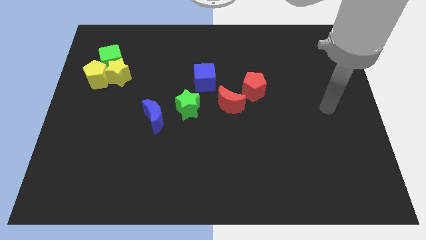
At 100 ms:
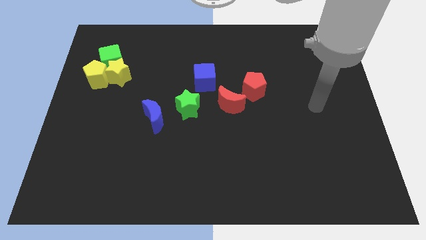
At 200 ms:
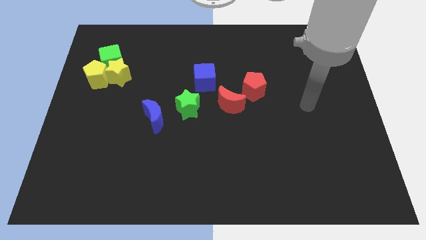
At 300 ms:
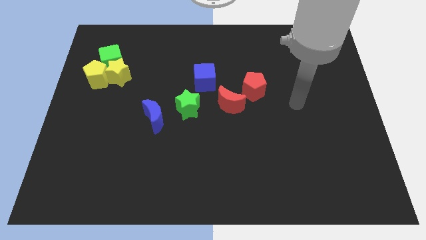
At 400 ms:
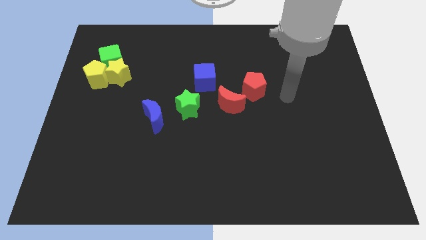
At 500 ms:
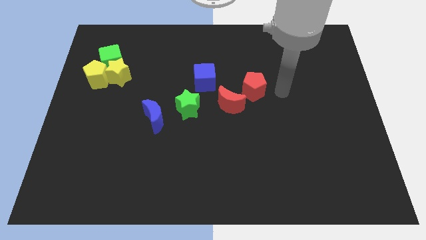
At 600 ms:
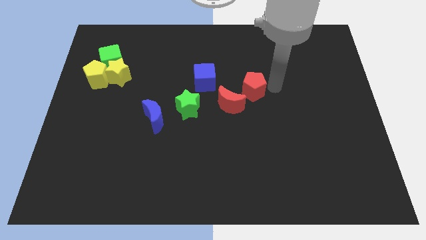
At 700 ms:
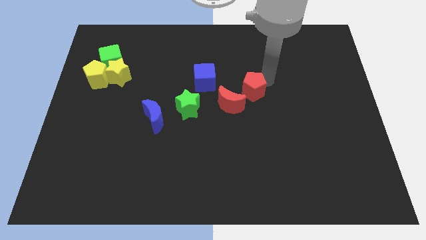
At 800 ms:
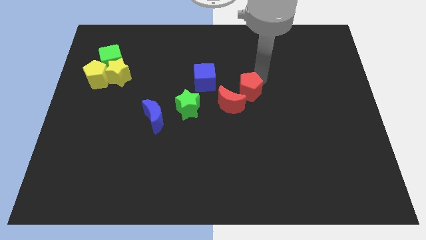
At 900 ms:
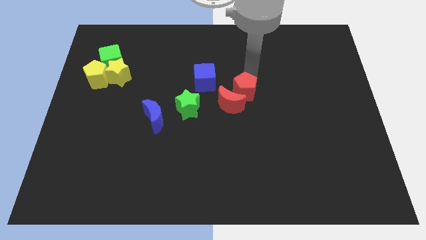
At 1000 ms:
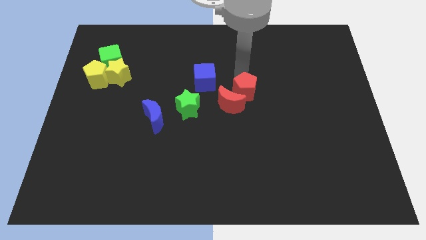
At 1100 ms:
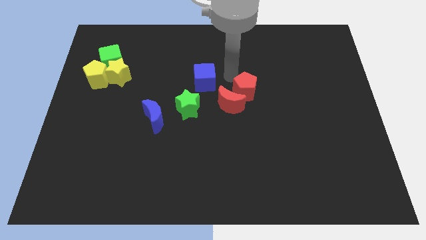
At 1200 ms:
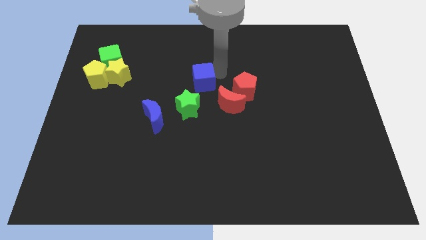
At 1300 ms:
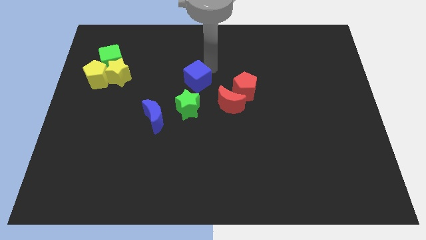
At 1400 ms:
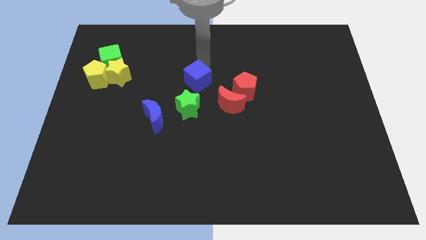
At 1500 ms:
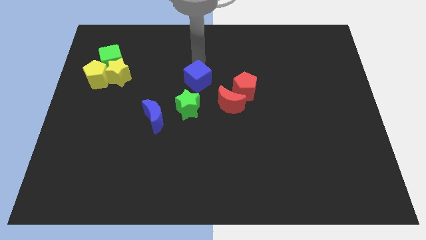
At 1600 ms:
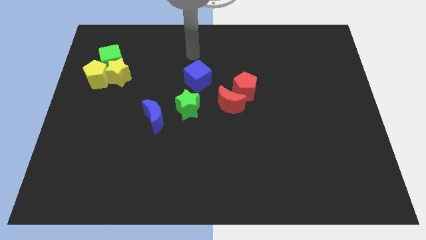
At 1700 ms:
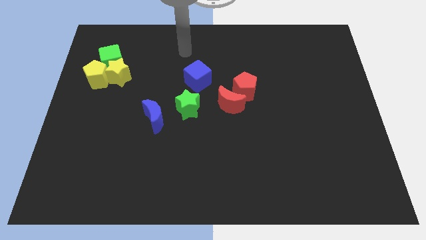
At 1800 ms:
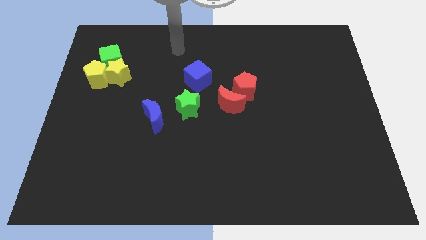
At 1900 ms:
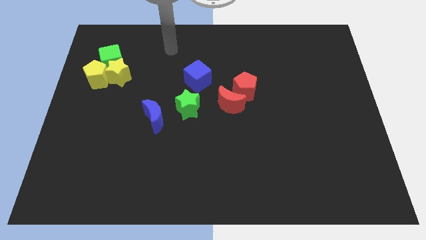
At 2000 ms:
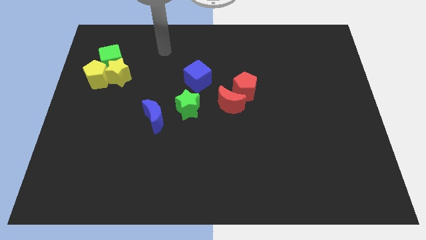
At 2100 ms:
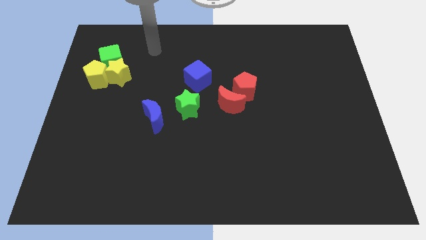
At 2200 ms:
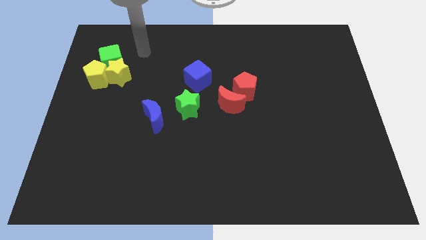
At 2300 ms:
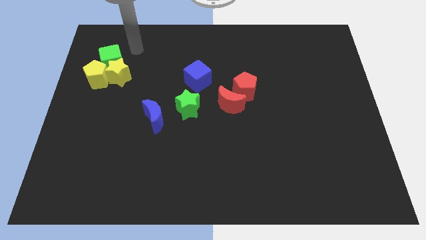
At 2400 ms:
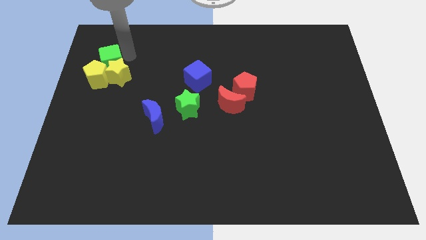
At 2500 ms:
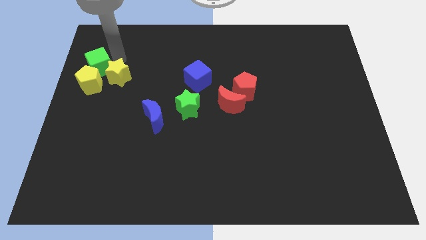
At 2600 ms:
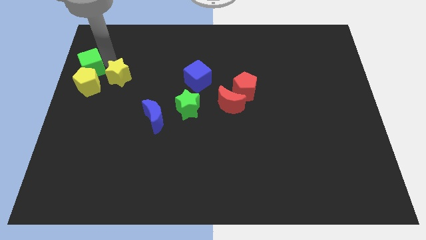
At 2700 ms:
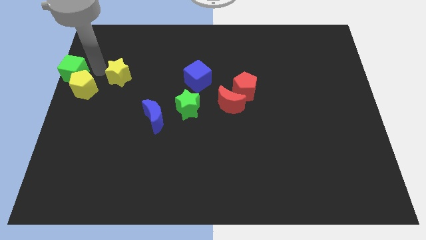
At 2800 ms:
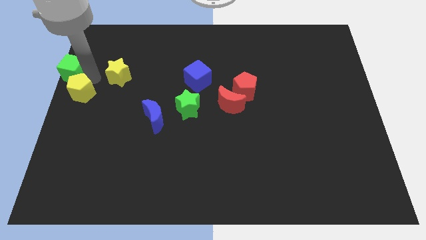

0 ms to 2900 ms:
separate the yellow star from the green cube and yellow pentagon

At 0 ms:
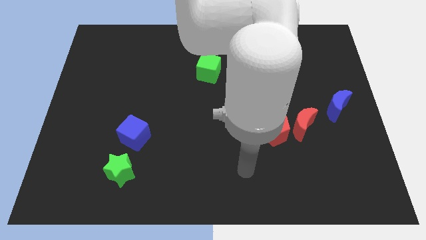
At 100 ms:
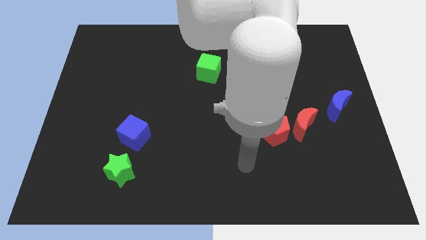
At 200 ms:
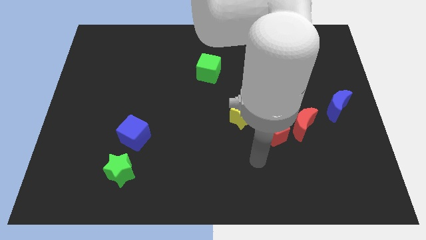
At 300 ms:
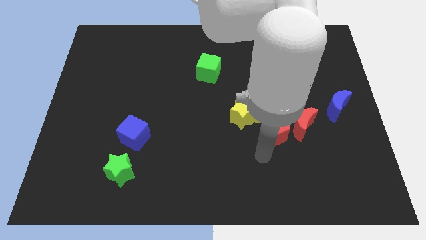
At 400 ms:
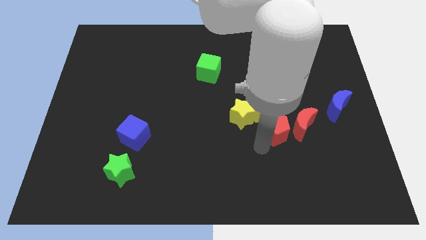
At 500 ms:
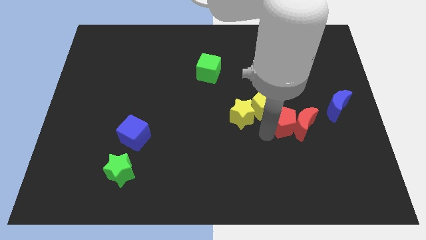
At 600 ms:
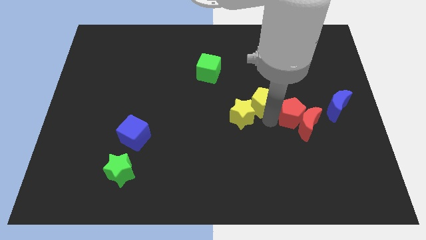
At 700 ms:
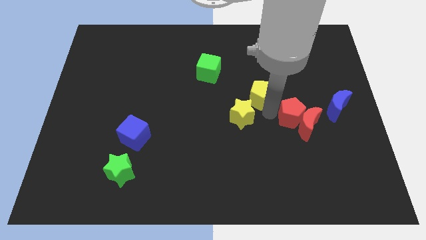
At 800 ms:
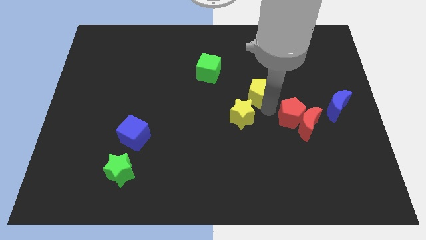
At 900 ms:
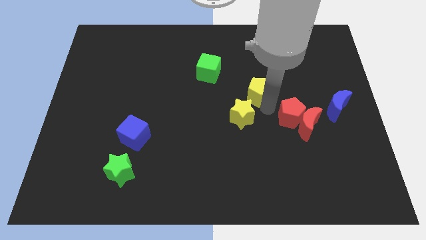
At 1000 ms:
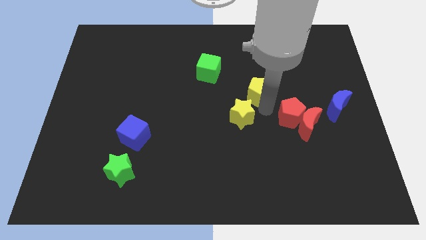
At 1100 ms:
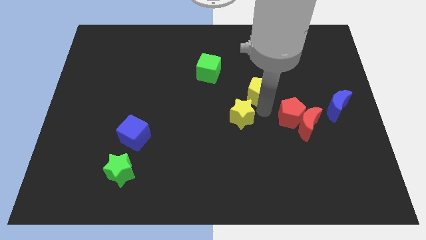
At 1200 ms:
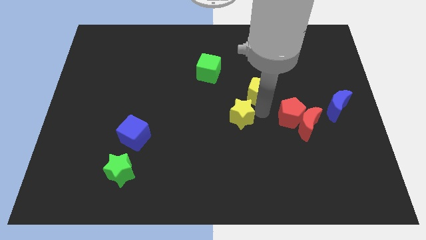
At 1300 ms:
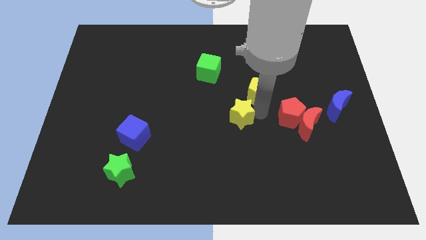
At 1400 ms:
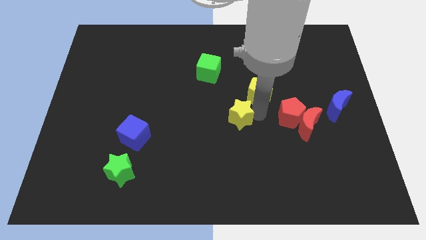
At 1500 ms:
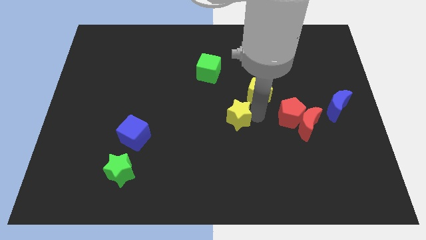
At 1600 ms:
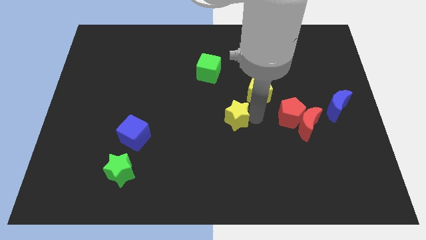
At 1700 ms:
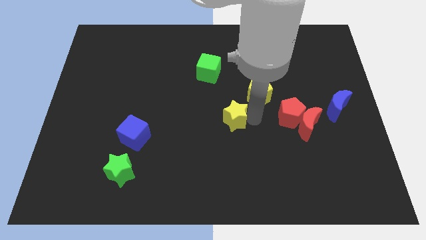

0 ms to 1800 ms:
pull the yellow star apart from the yellow pentagon and red pentagon

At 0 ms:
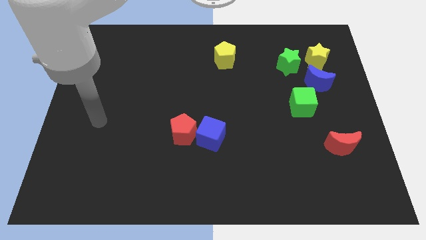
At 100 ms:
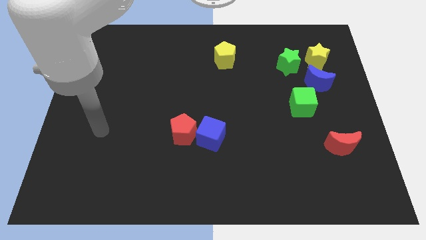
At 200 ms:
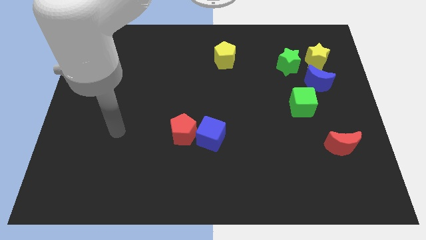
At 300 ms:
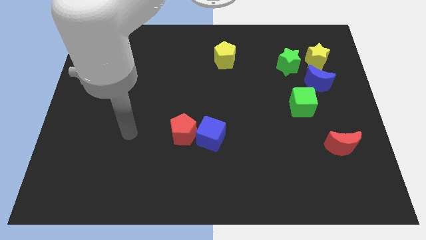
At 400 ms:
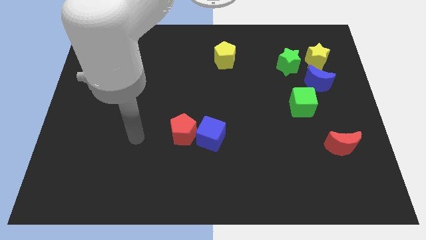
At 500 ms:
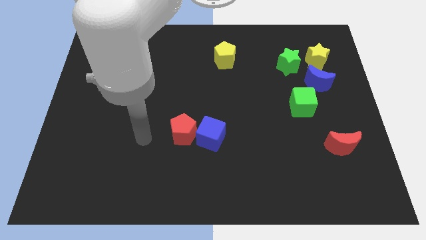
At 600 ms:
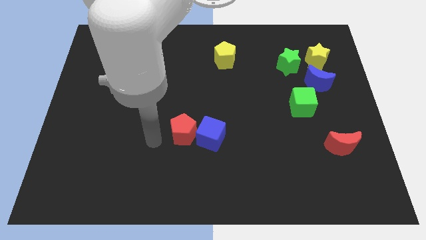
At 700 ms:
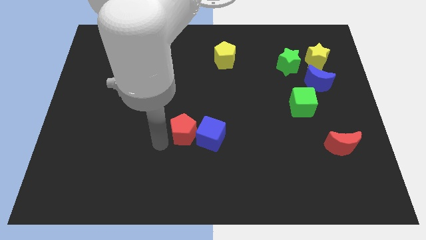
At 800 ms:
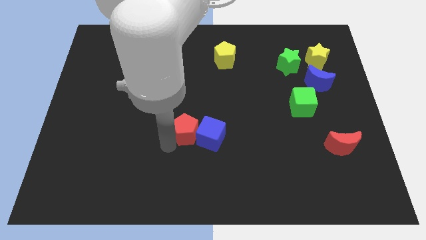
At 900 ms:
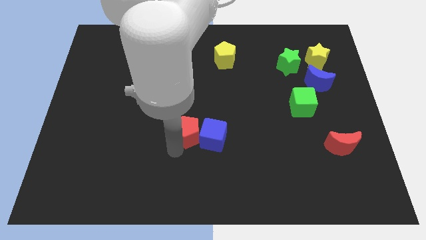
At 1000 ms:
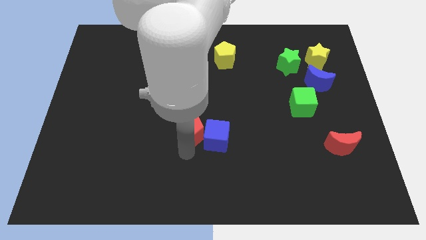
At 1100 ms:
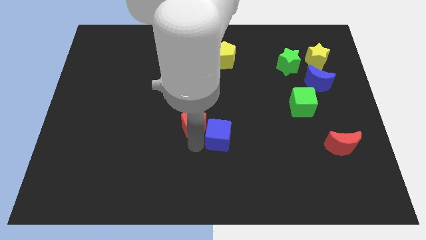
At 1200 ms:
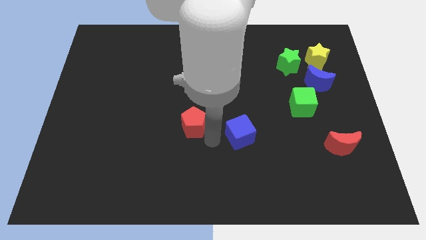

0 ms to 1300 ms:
move the red pentagon away from the blue cube

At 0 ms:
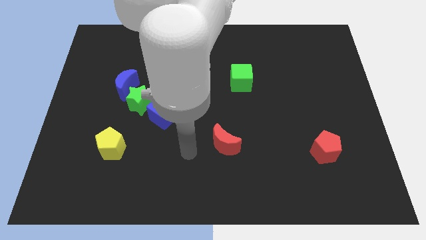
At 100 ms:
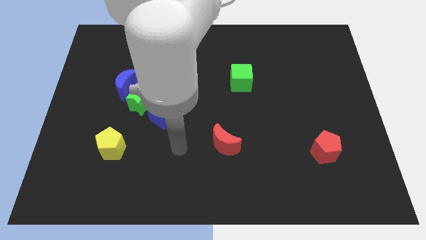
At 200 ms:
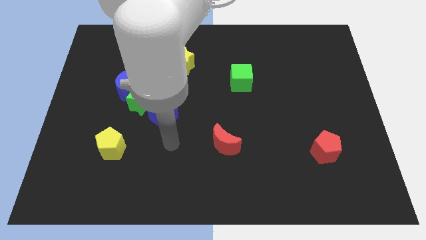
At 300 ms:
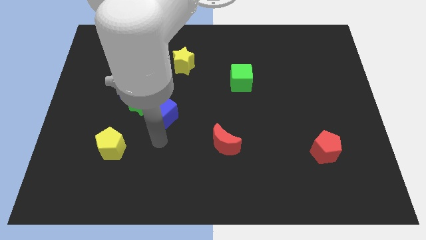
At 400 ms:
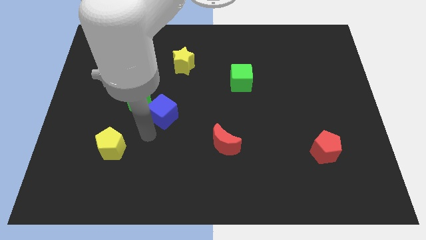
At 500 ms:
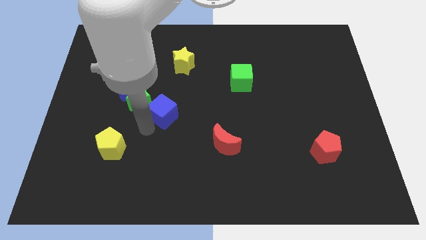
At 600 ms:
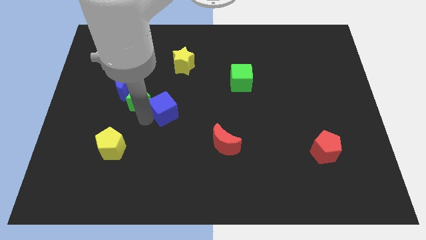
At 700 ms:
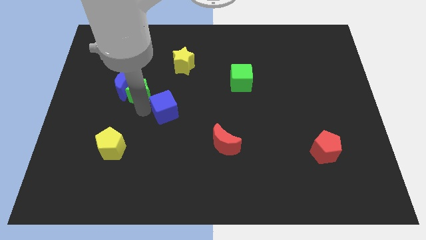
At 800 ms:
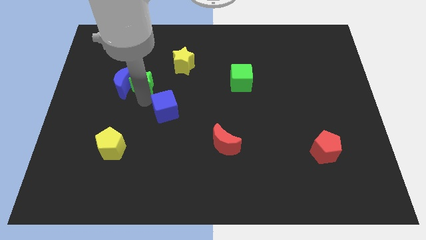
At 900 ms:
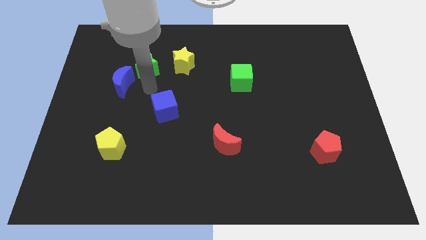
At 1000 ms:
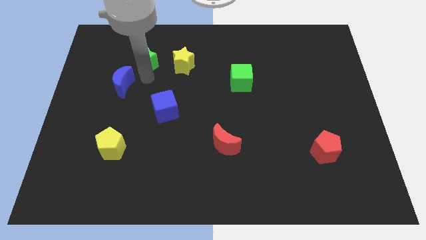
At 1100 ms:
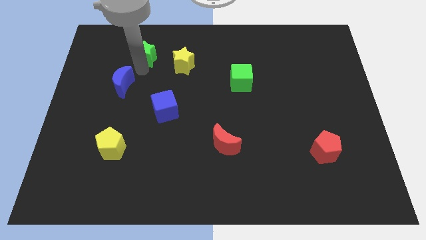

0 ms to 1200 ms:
move the blue moon away from the green star

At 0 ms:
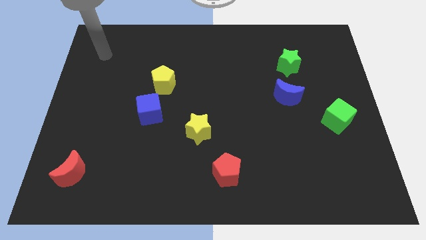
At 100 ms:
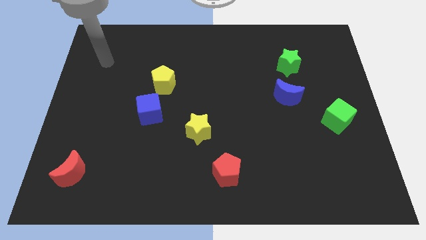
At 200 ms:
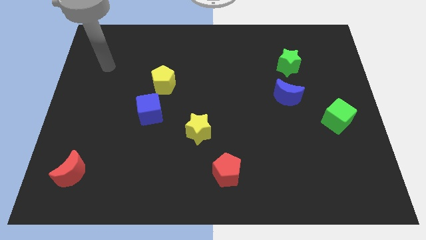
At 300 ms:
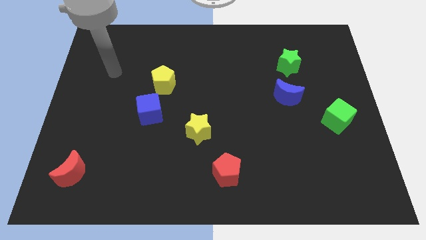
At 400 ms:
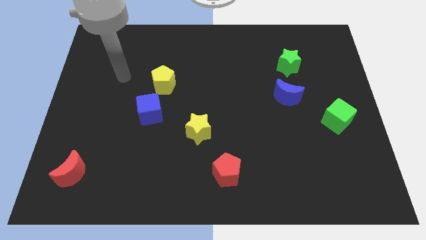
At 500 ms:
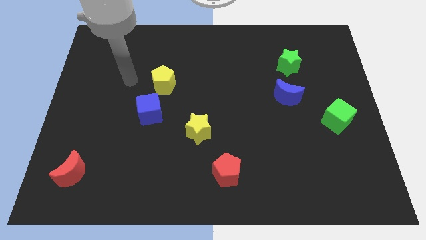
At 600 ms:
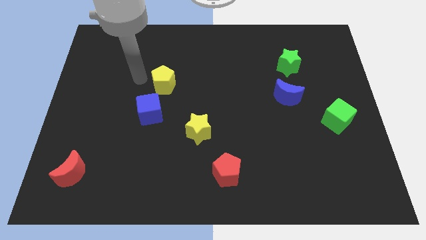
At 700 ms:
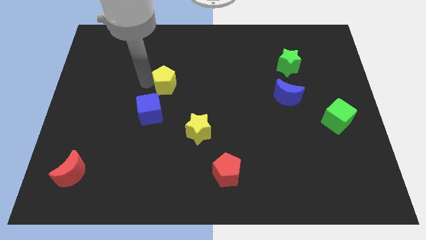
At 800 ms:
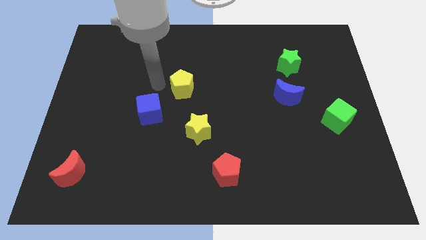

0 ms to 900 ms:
pull the blue cube apart from the yellow pentagon

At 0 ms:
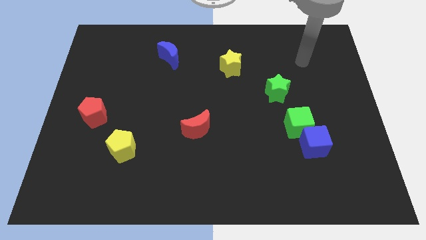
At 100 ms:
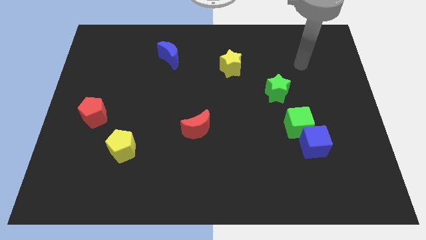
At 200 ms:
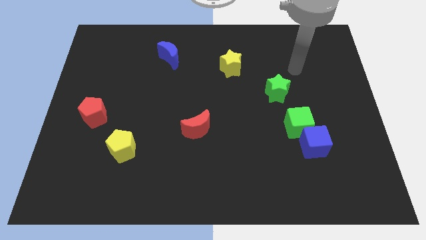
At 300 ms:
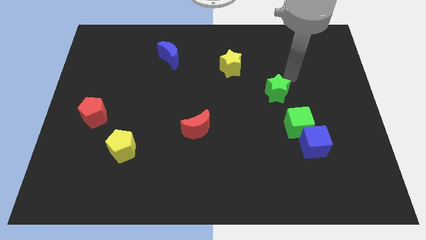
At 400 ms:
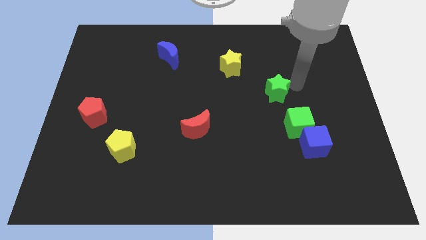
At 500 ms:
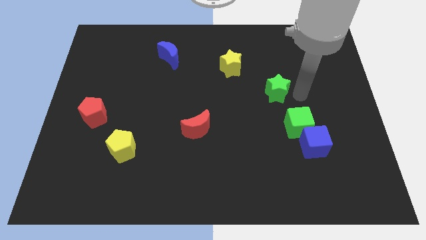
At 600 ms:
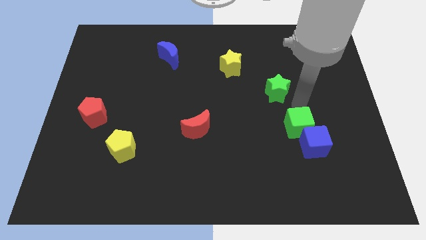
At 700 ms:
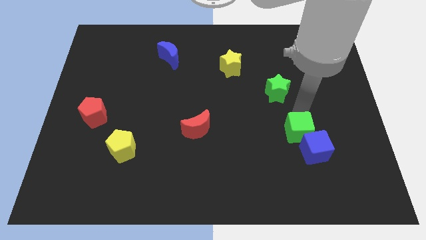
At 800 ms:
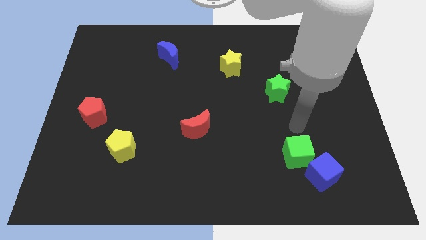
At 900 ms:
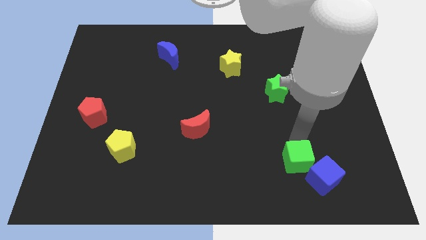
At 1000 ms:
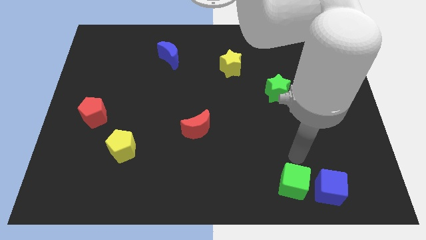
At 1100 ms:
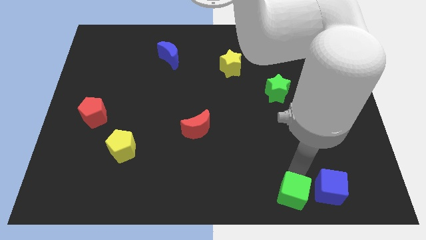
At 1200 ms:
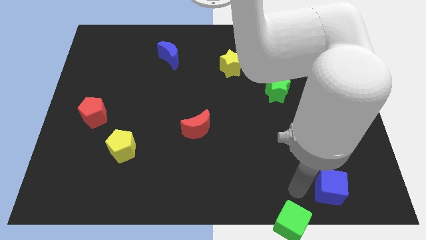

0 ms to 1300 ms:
pull the blue cube apart from the green cube
